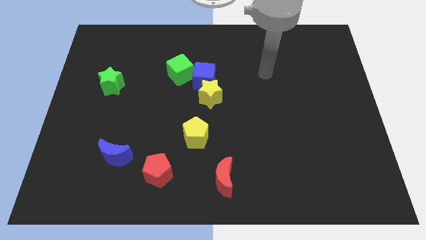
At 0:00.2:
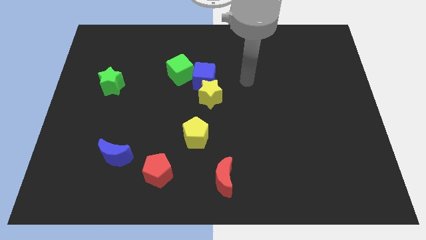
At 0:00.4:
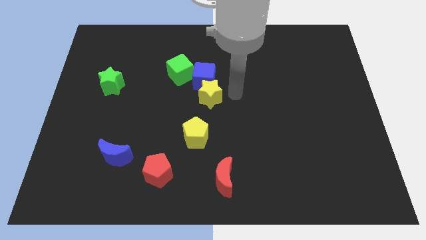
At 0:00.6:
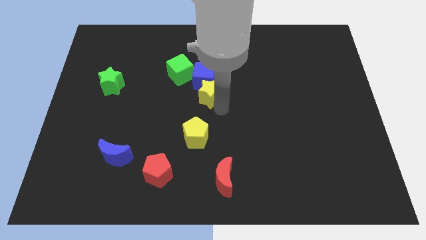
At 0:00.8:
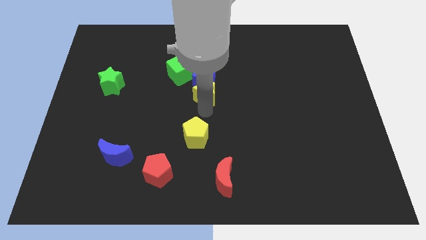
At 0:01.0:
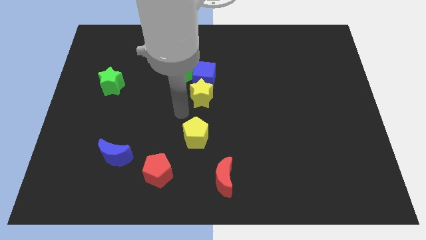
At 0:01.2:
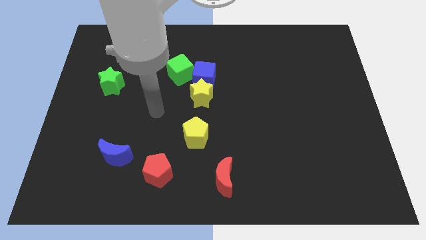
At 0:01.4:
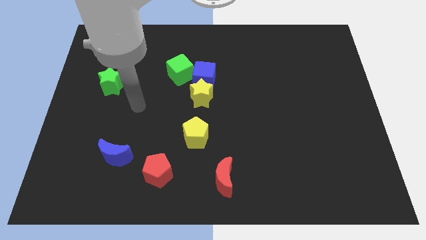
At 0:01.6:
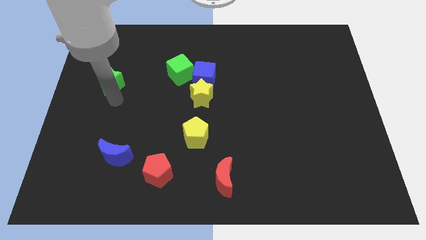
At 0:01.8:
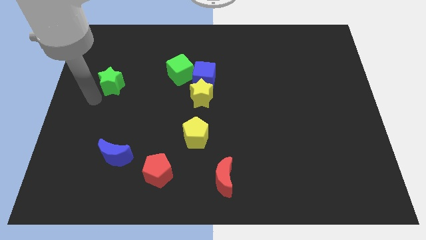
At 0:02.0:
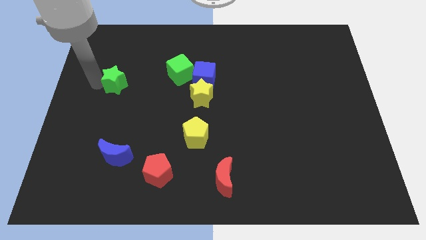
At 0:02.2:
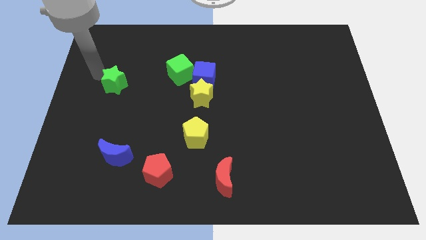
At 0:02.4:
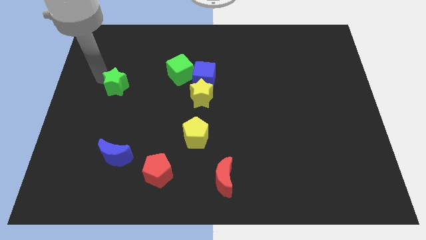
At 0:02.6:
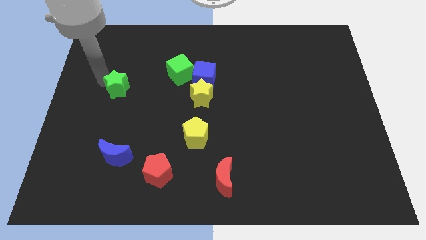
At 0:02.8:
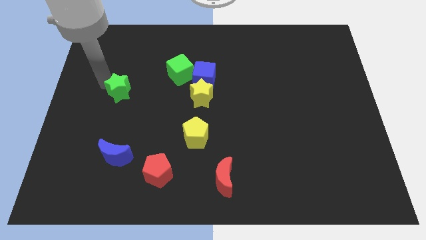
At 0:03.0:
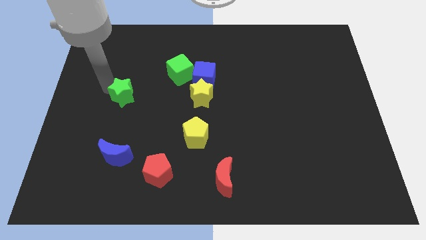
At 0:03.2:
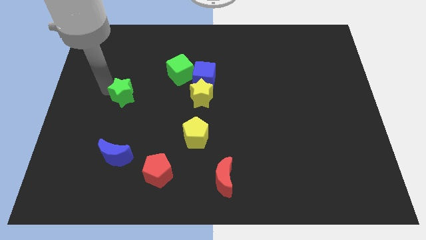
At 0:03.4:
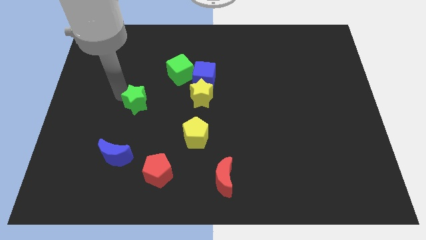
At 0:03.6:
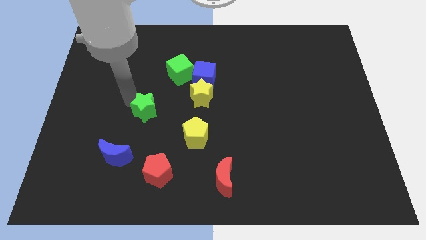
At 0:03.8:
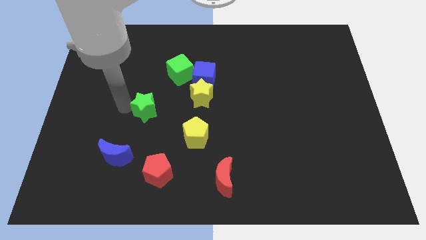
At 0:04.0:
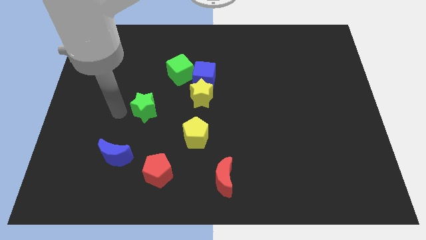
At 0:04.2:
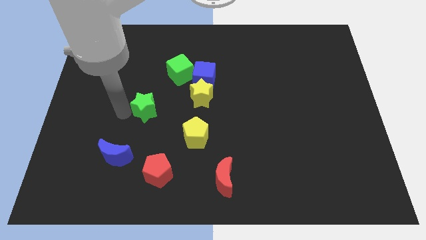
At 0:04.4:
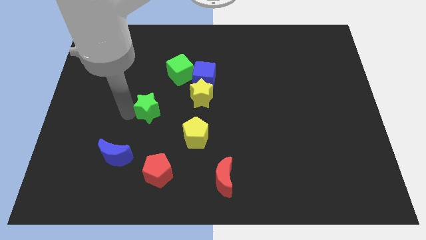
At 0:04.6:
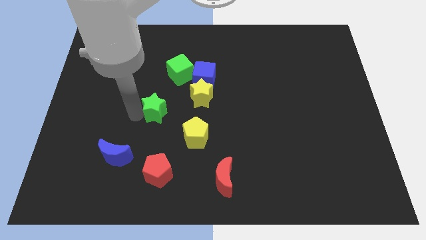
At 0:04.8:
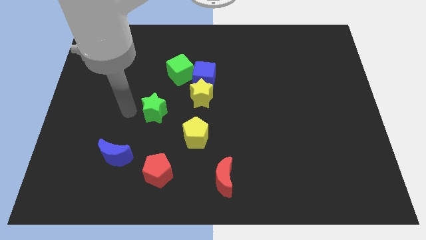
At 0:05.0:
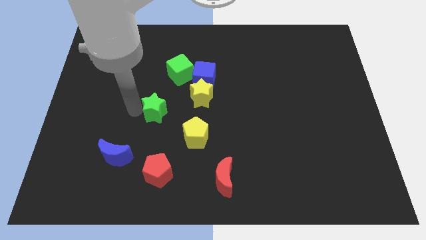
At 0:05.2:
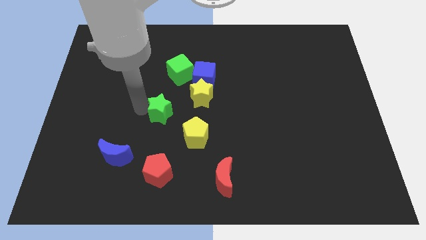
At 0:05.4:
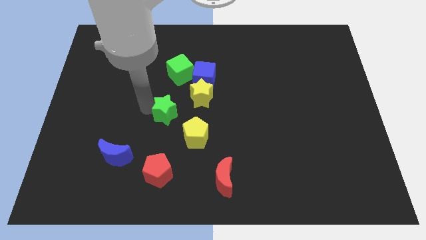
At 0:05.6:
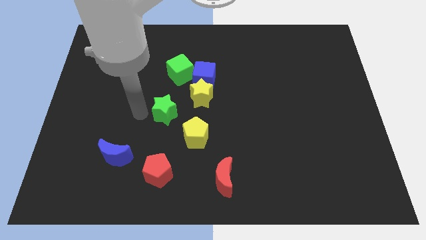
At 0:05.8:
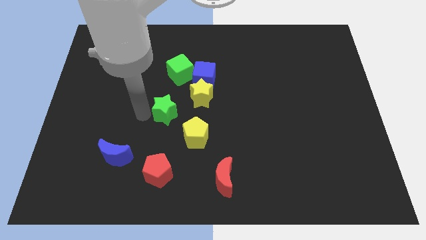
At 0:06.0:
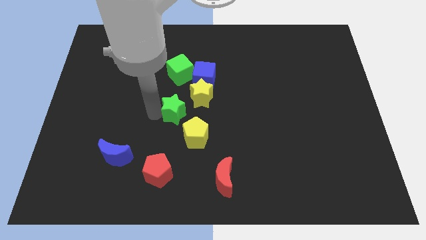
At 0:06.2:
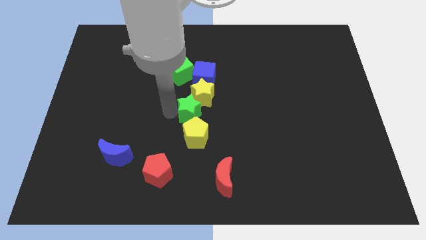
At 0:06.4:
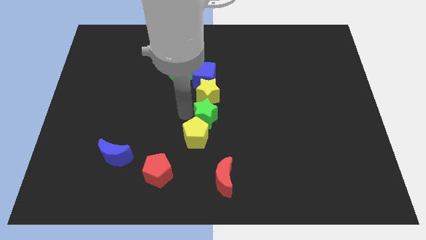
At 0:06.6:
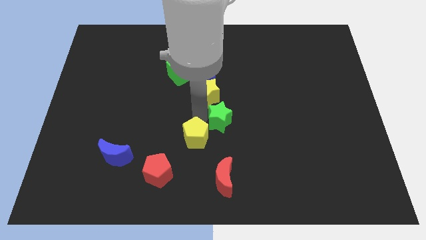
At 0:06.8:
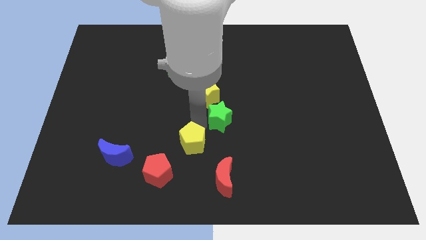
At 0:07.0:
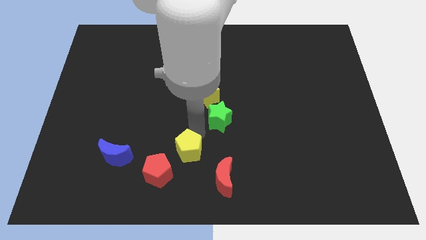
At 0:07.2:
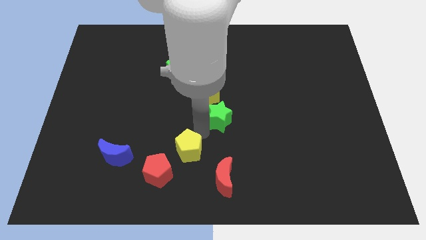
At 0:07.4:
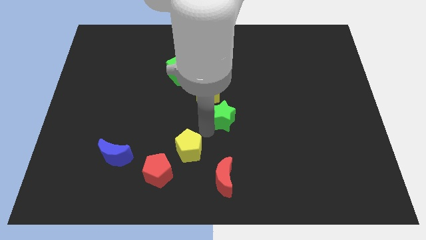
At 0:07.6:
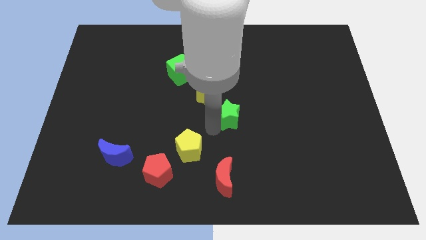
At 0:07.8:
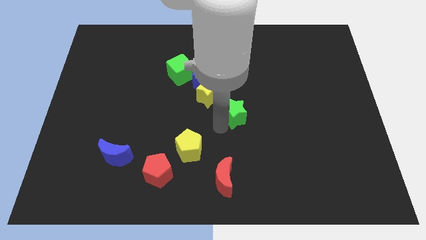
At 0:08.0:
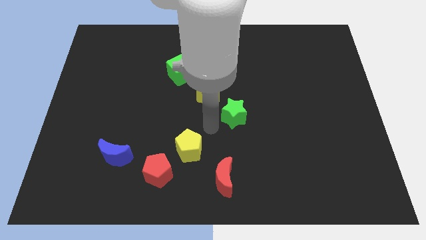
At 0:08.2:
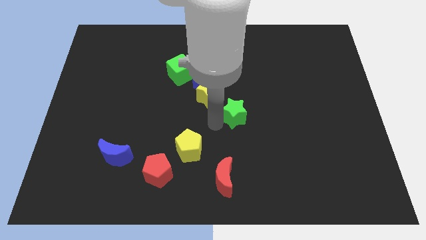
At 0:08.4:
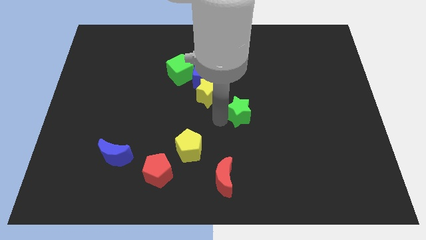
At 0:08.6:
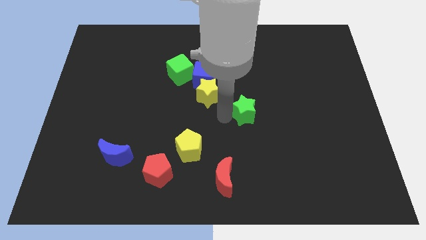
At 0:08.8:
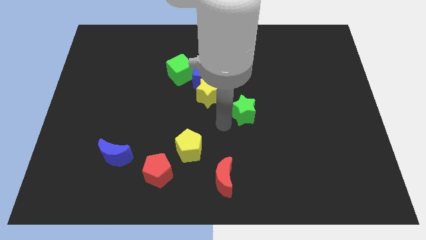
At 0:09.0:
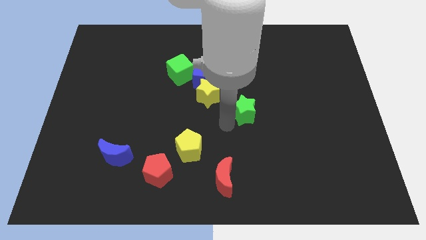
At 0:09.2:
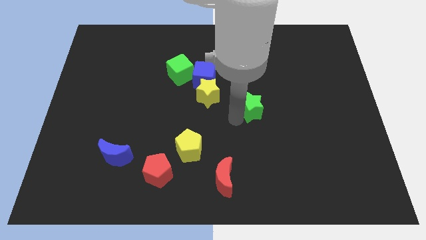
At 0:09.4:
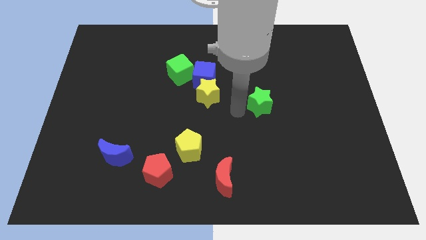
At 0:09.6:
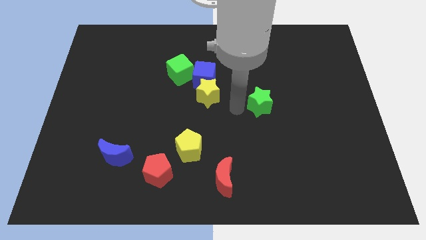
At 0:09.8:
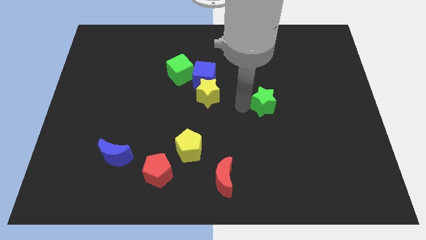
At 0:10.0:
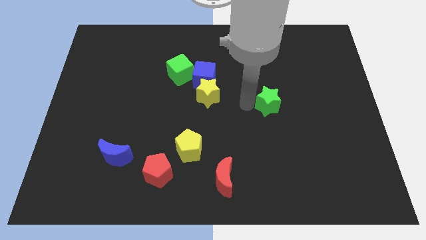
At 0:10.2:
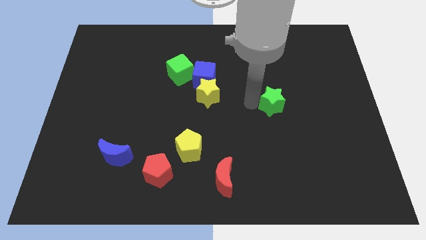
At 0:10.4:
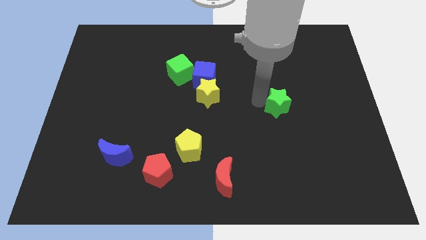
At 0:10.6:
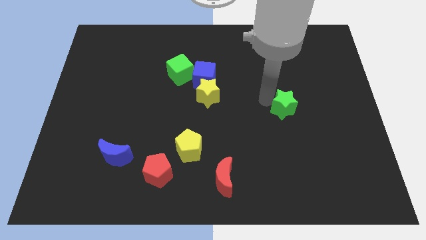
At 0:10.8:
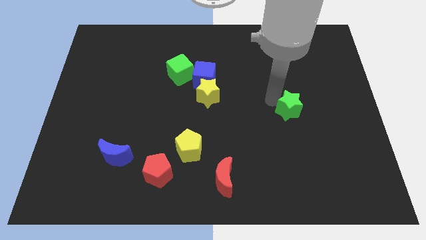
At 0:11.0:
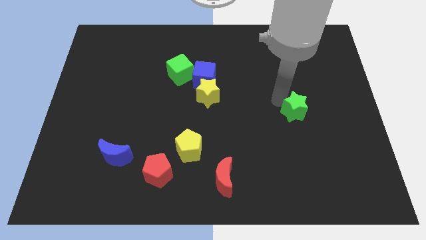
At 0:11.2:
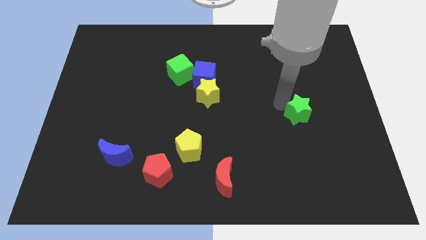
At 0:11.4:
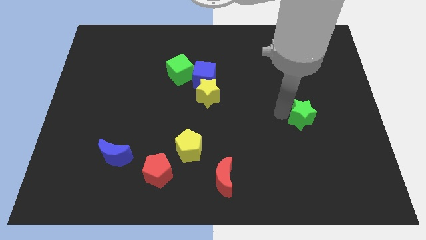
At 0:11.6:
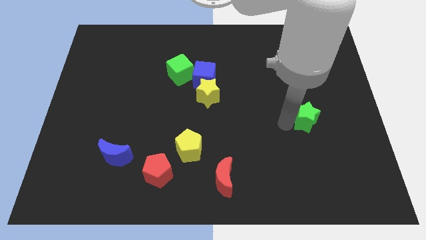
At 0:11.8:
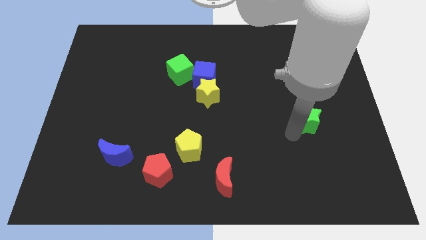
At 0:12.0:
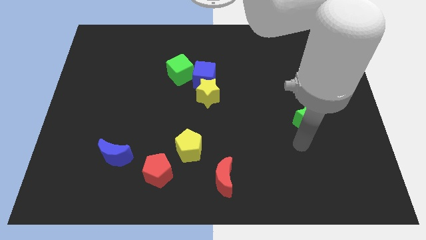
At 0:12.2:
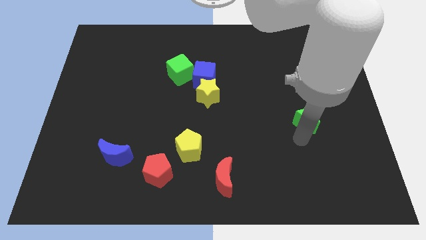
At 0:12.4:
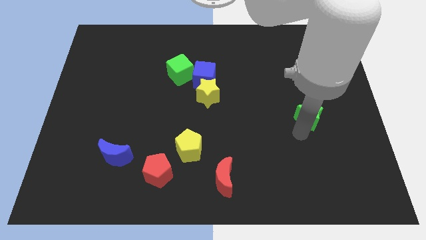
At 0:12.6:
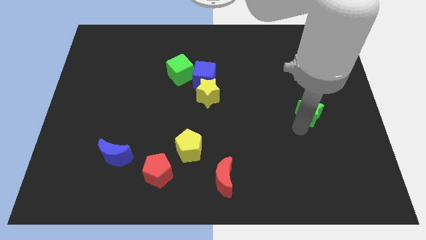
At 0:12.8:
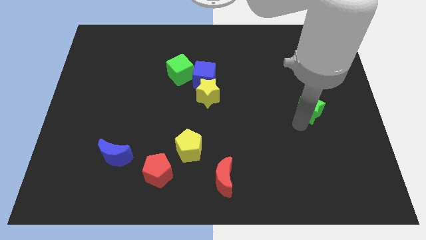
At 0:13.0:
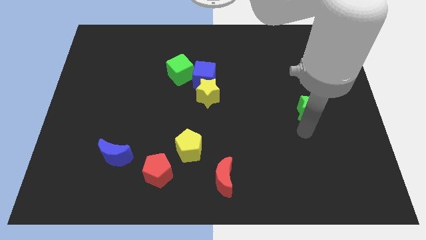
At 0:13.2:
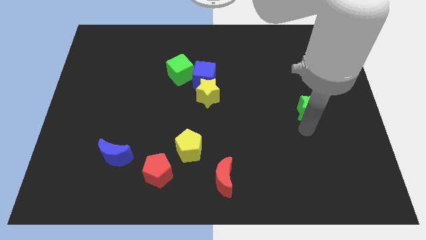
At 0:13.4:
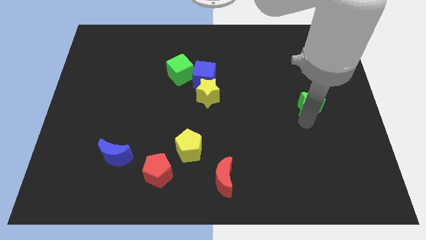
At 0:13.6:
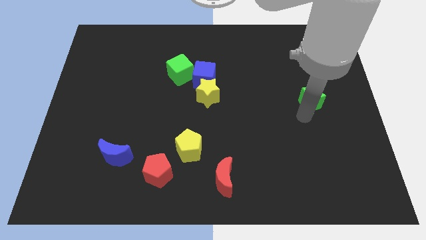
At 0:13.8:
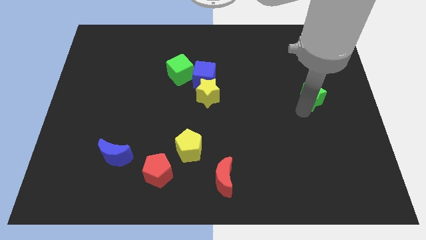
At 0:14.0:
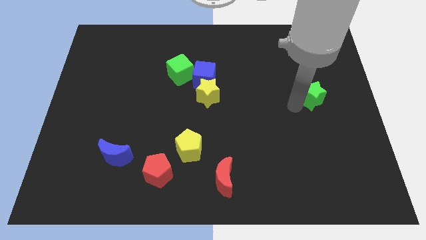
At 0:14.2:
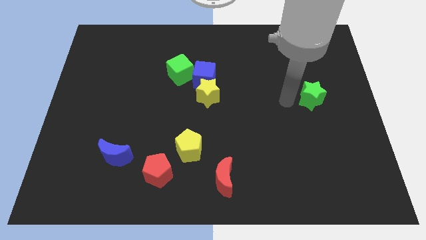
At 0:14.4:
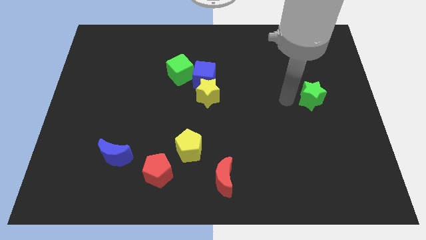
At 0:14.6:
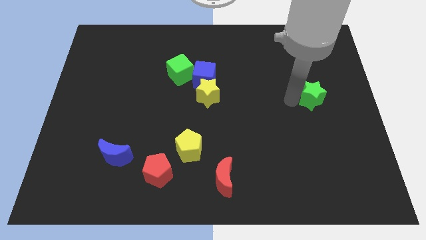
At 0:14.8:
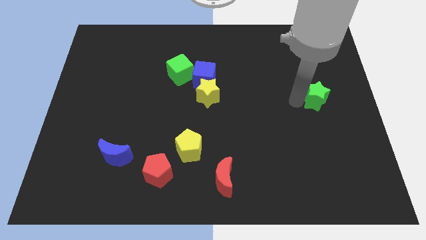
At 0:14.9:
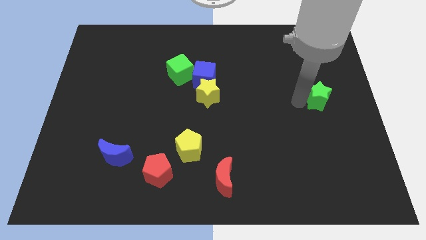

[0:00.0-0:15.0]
move the green star to the right side of the board

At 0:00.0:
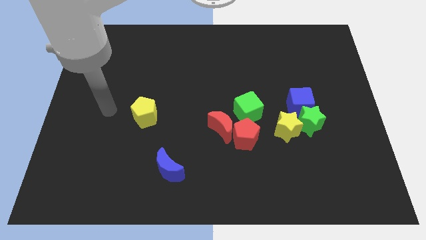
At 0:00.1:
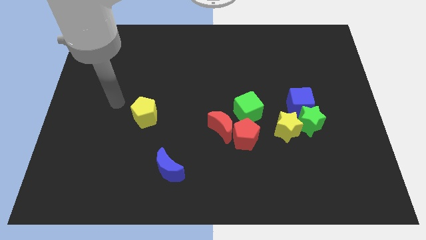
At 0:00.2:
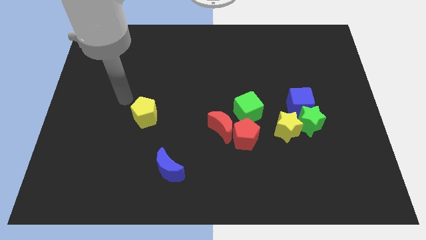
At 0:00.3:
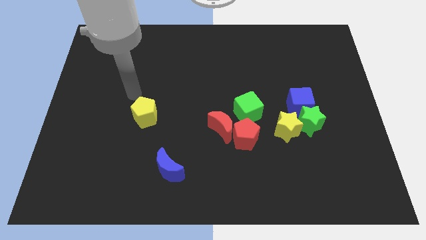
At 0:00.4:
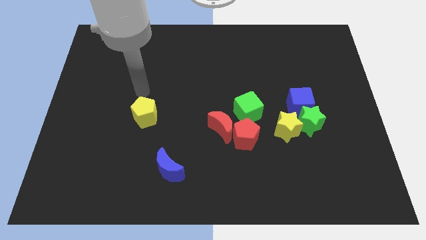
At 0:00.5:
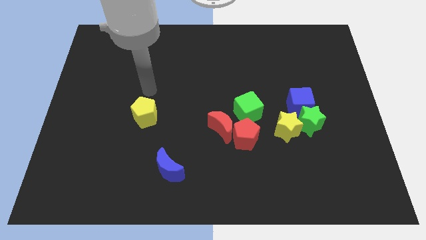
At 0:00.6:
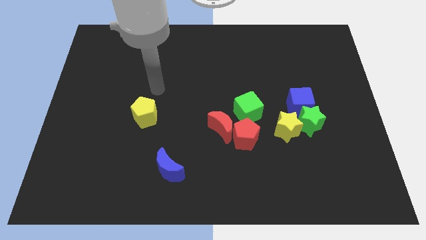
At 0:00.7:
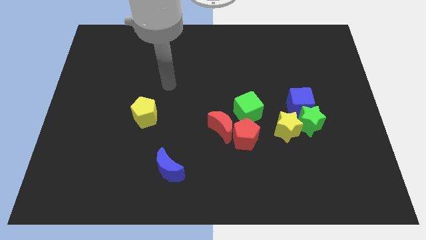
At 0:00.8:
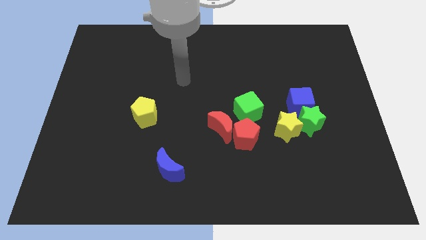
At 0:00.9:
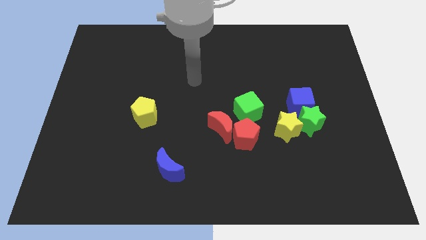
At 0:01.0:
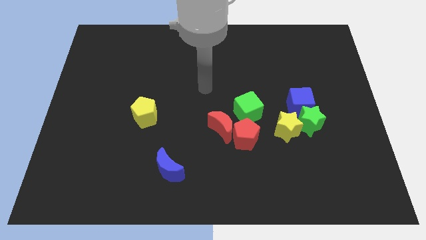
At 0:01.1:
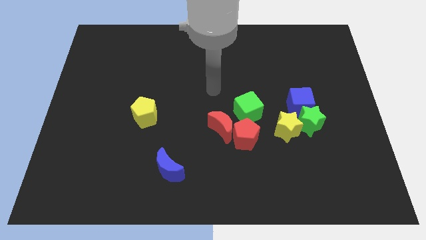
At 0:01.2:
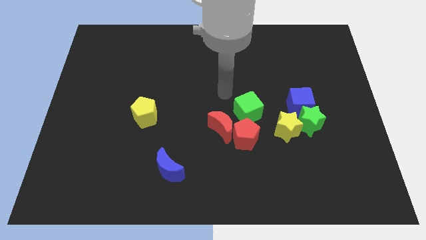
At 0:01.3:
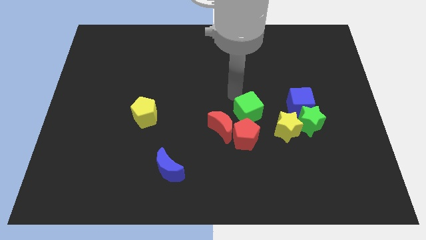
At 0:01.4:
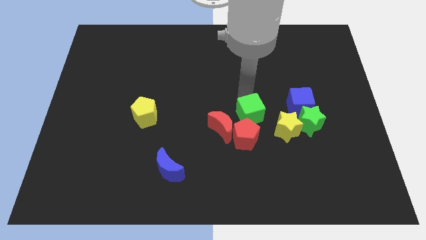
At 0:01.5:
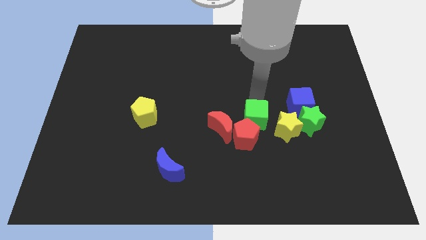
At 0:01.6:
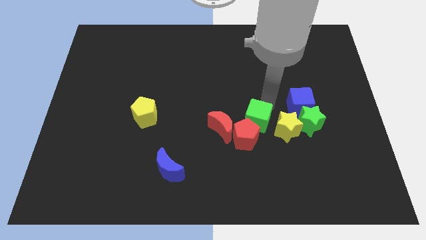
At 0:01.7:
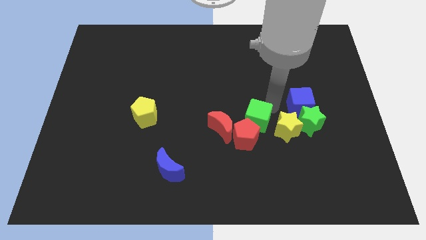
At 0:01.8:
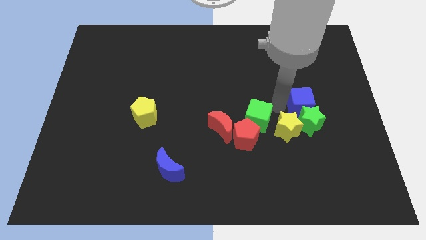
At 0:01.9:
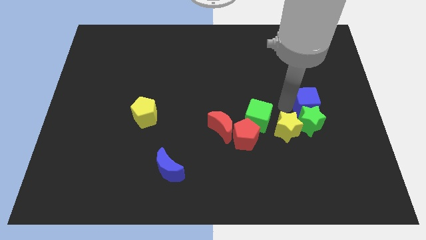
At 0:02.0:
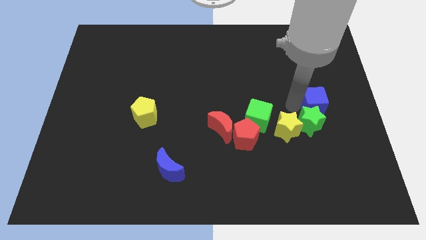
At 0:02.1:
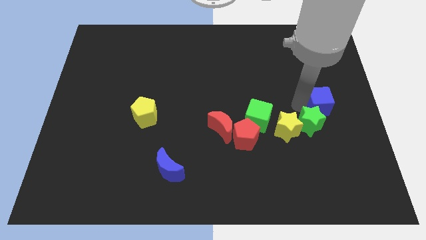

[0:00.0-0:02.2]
put the blue cube to the right side of the board
